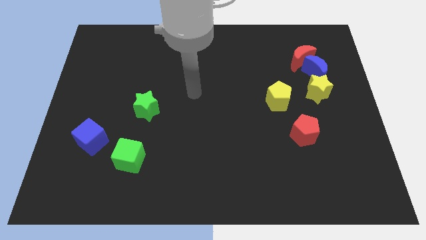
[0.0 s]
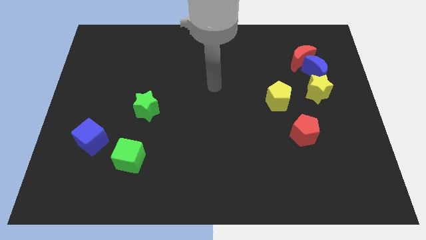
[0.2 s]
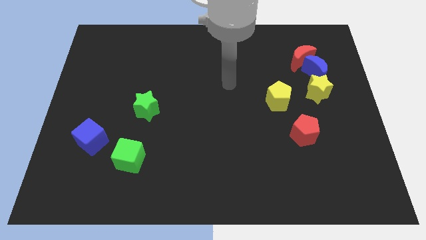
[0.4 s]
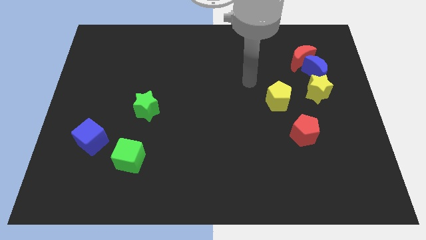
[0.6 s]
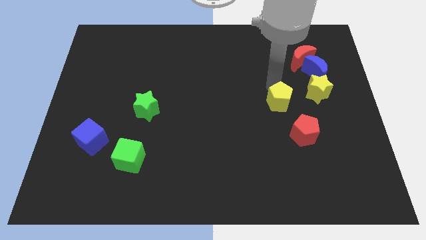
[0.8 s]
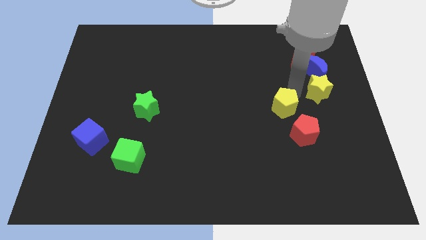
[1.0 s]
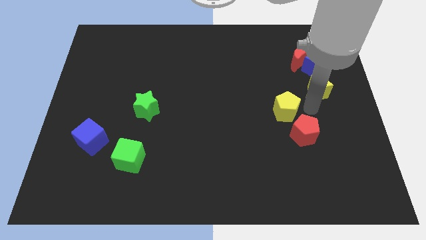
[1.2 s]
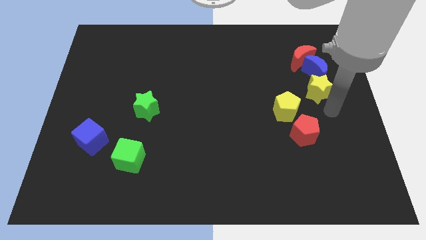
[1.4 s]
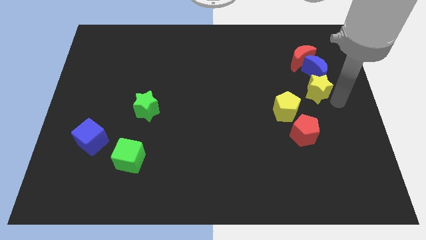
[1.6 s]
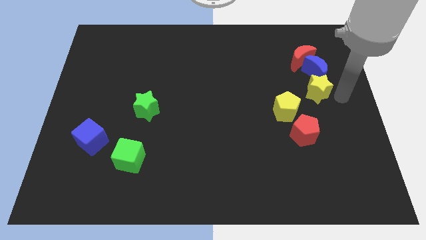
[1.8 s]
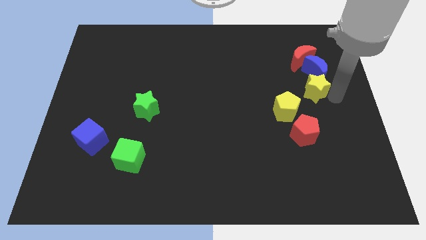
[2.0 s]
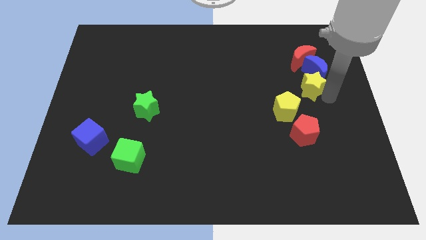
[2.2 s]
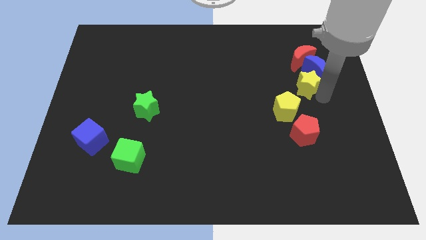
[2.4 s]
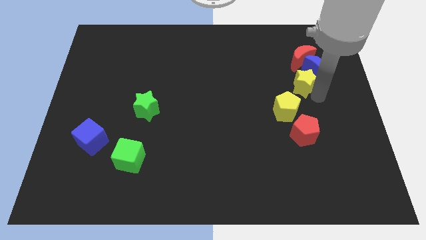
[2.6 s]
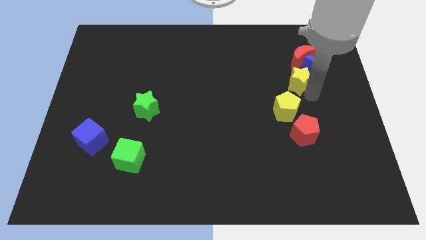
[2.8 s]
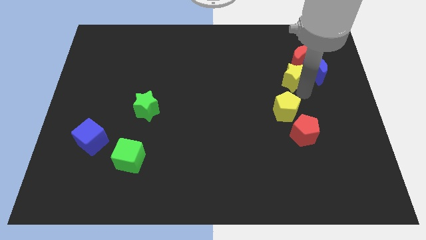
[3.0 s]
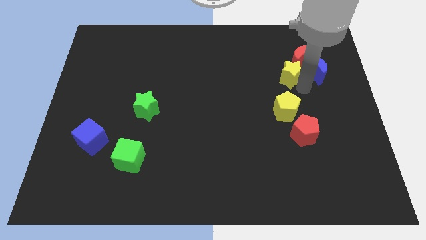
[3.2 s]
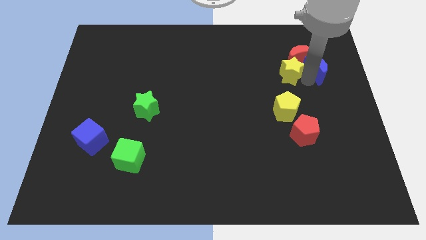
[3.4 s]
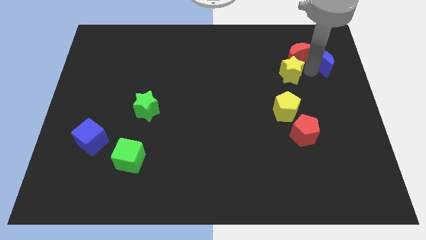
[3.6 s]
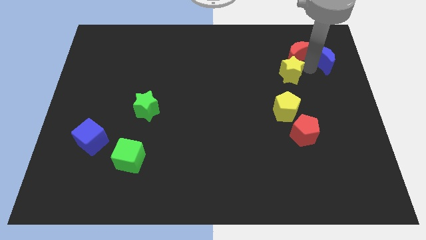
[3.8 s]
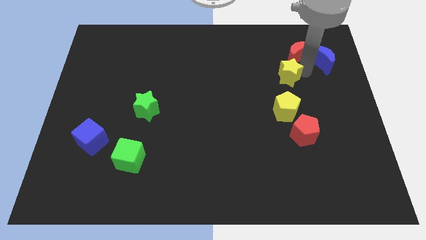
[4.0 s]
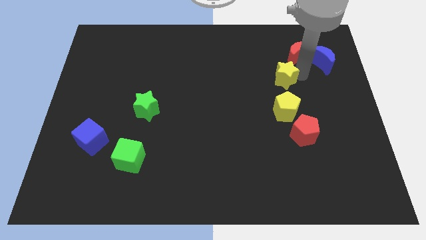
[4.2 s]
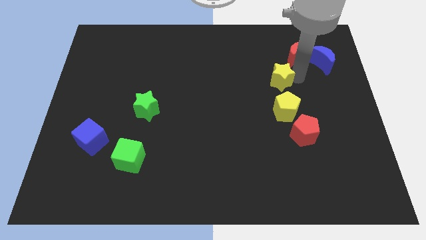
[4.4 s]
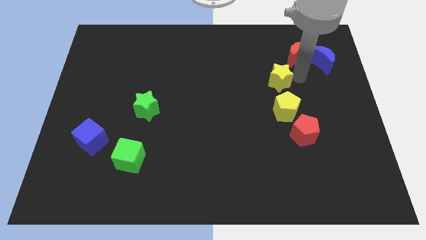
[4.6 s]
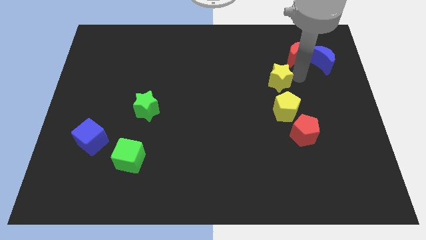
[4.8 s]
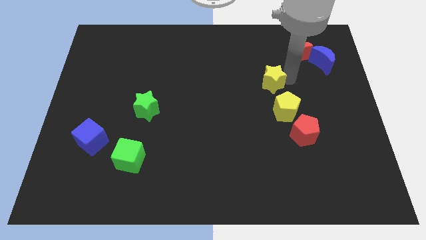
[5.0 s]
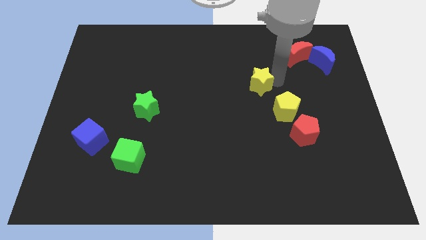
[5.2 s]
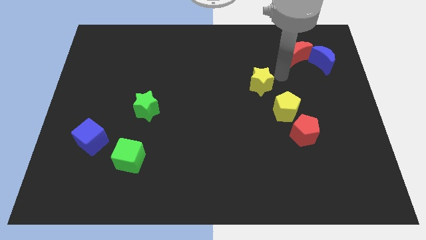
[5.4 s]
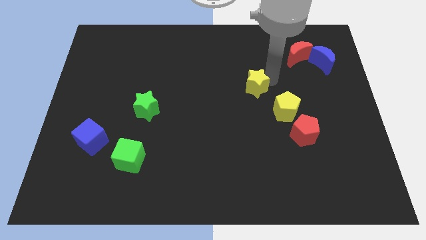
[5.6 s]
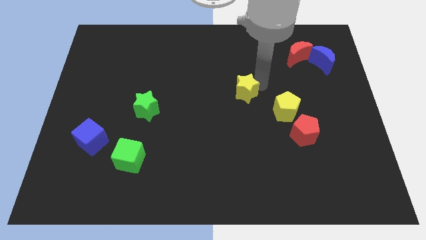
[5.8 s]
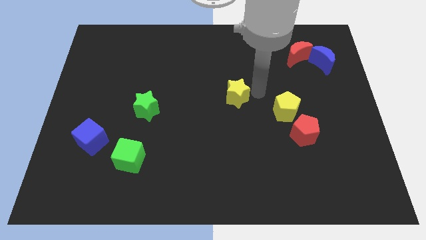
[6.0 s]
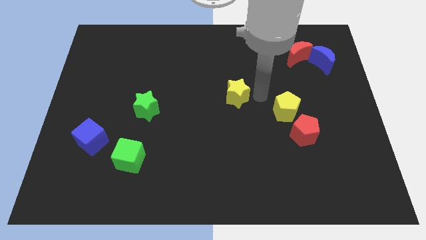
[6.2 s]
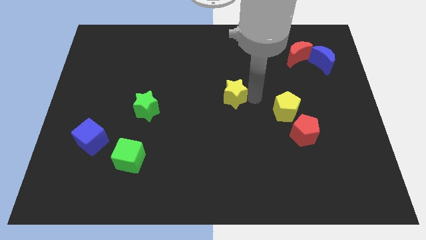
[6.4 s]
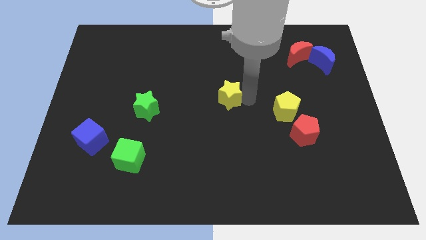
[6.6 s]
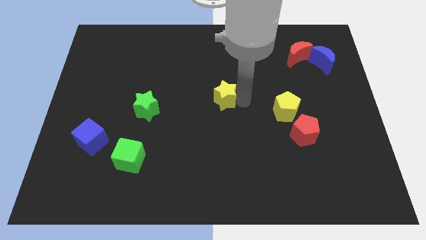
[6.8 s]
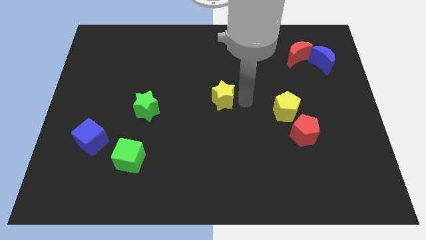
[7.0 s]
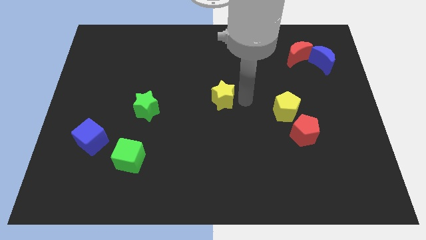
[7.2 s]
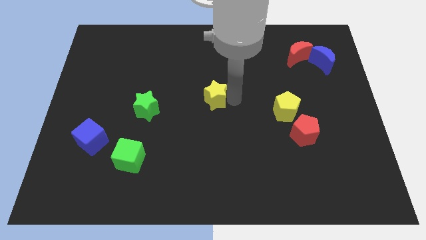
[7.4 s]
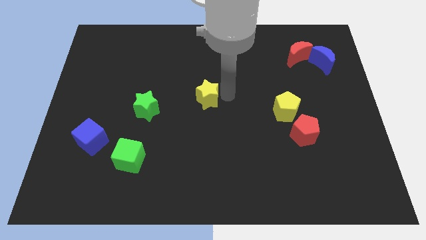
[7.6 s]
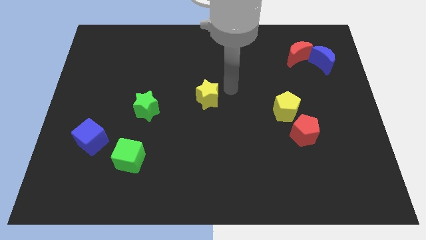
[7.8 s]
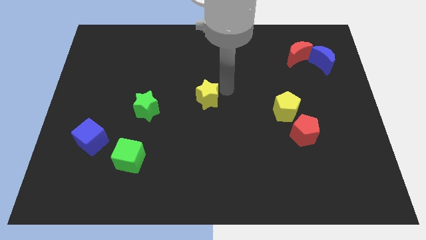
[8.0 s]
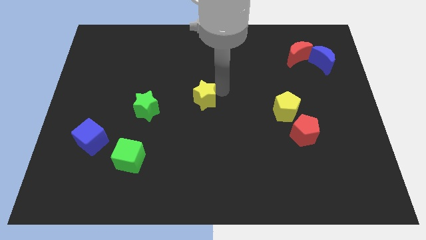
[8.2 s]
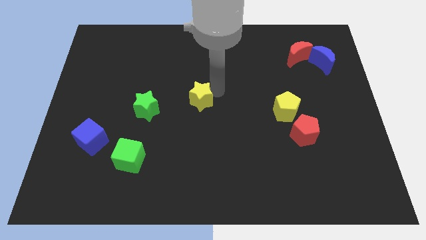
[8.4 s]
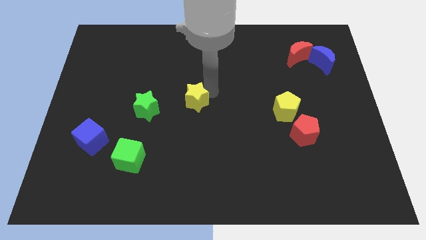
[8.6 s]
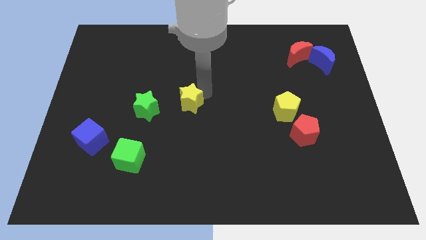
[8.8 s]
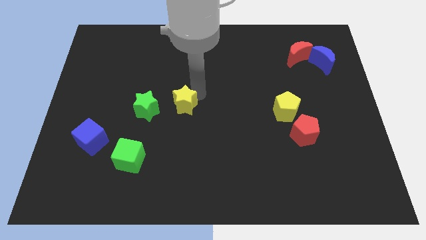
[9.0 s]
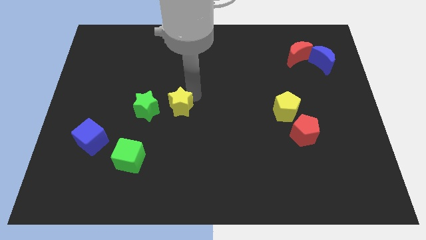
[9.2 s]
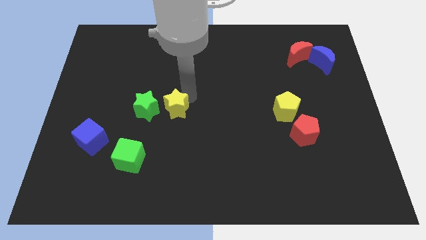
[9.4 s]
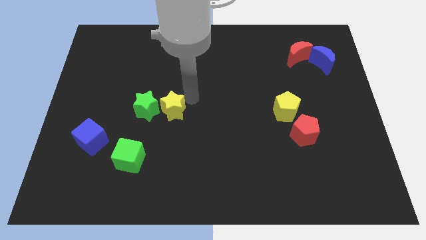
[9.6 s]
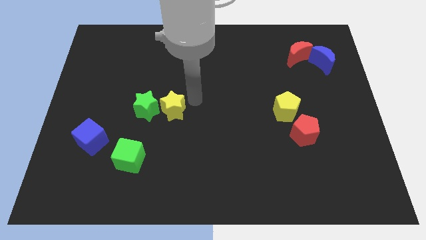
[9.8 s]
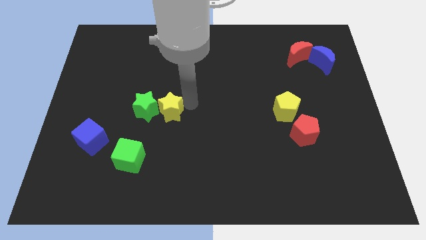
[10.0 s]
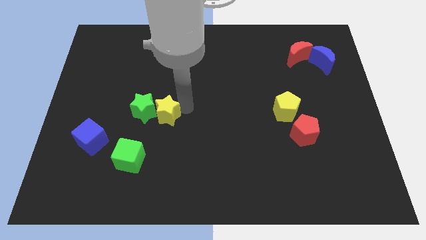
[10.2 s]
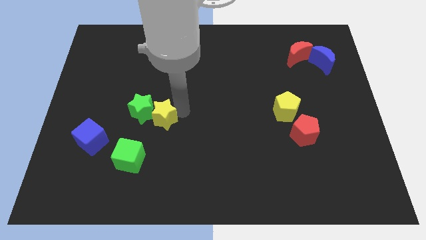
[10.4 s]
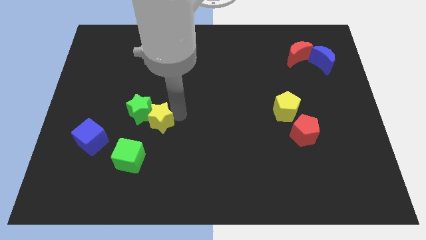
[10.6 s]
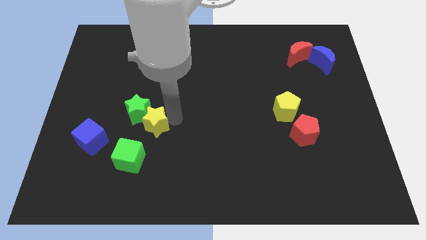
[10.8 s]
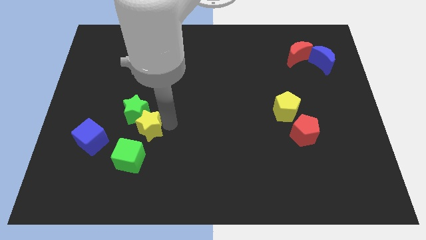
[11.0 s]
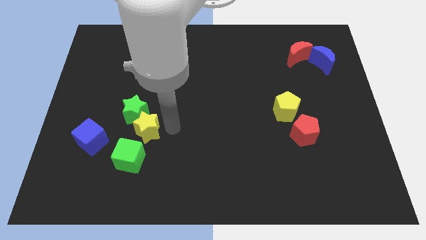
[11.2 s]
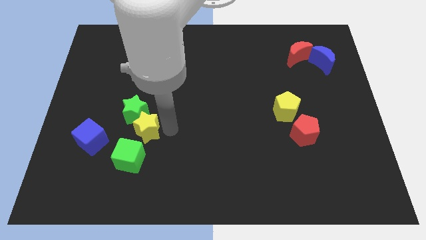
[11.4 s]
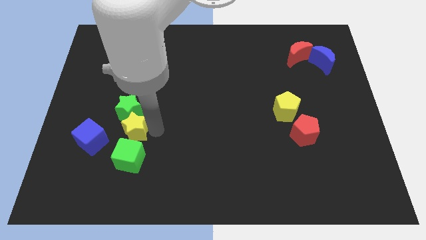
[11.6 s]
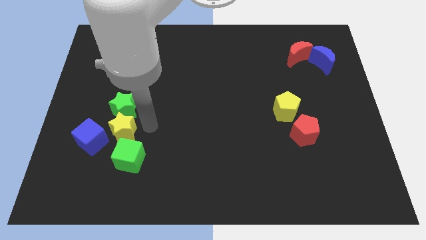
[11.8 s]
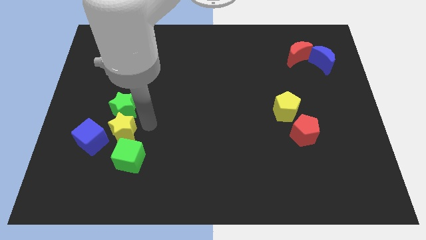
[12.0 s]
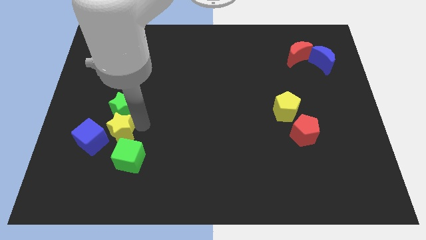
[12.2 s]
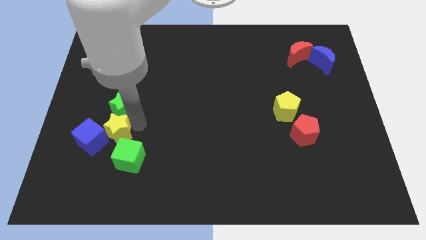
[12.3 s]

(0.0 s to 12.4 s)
slide the yellow star to the blue cube
